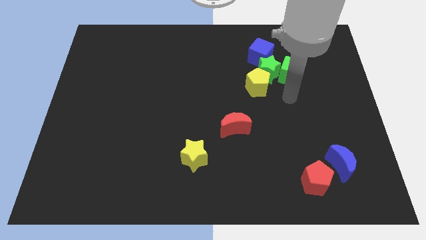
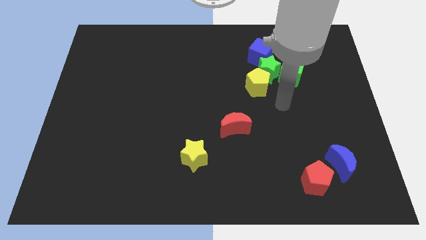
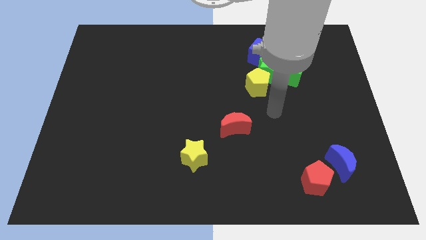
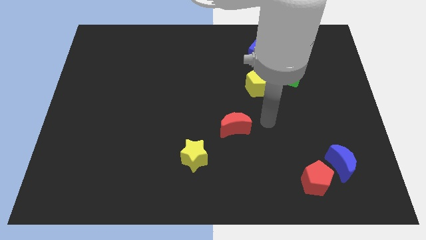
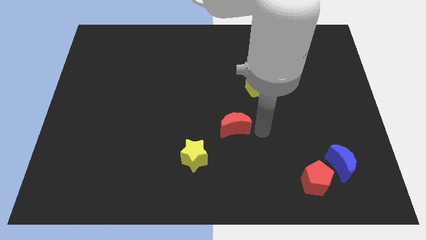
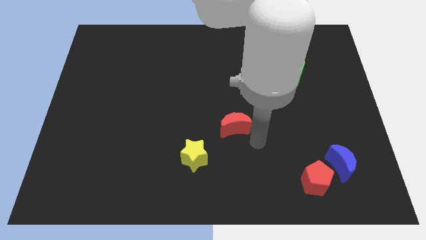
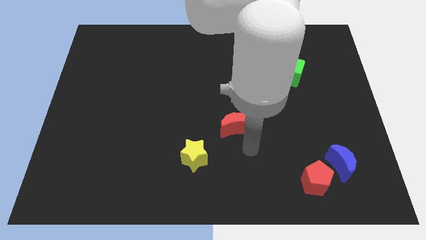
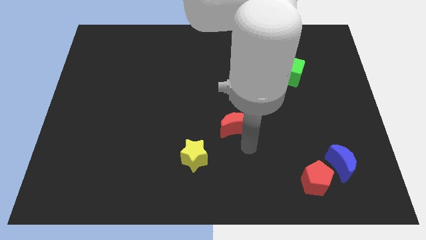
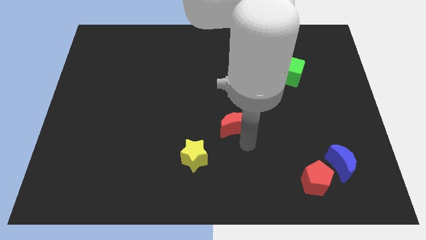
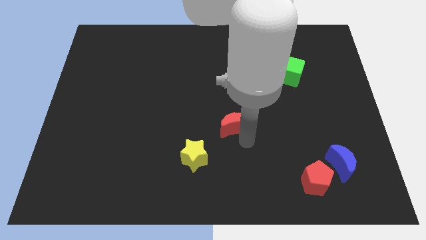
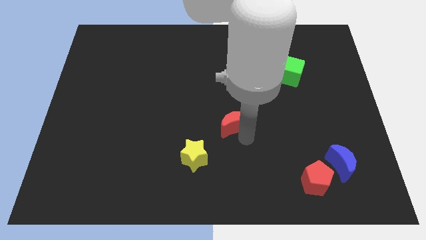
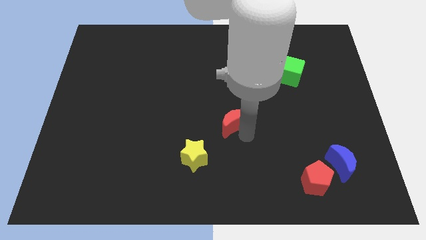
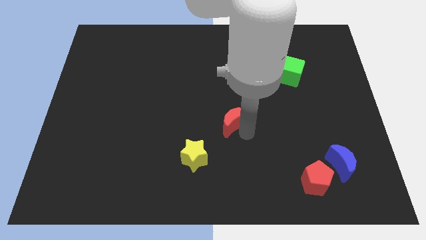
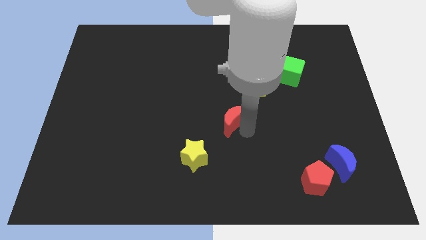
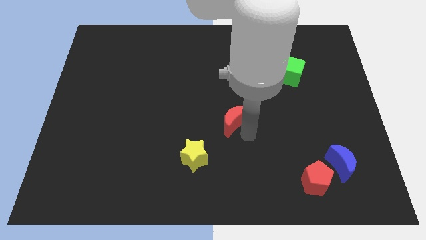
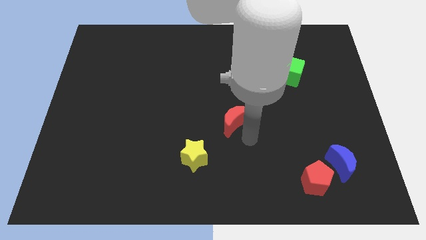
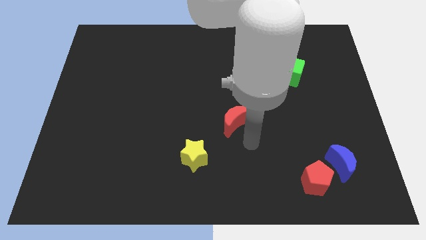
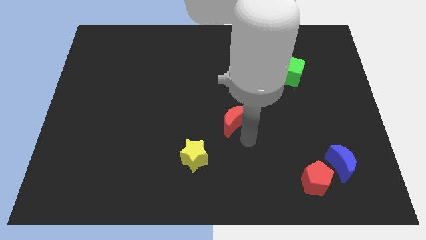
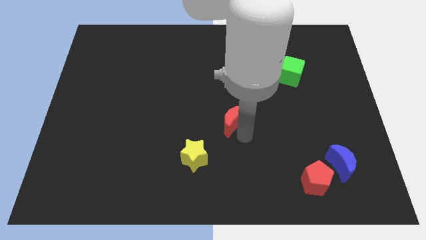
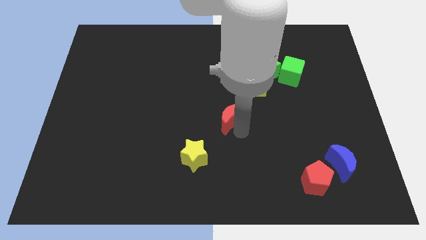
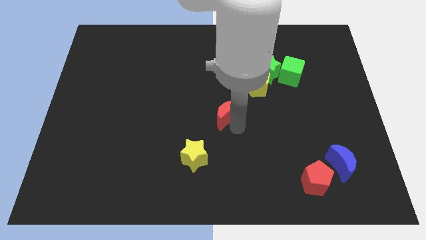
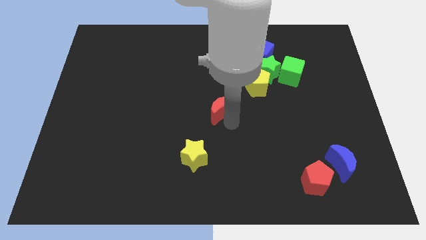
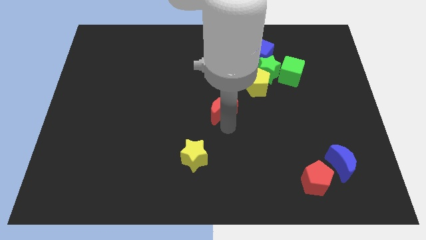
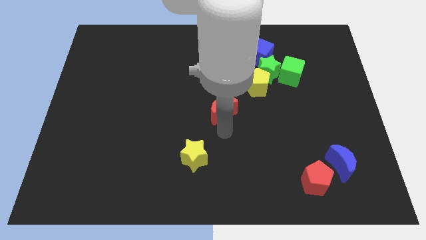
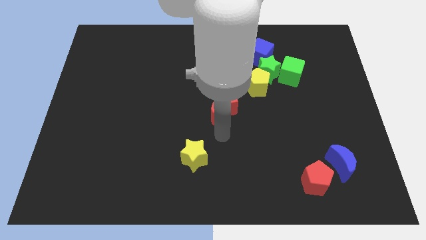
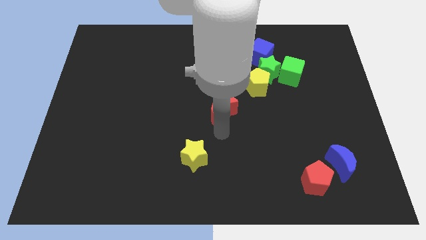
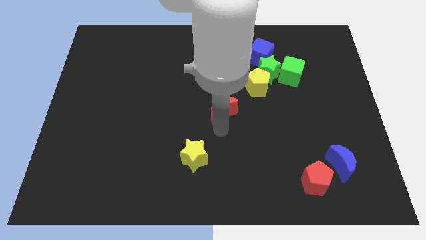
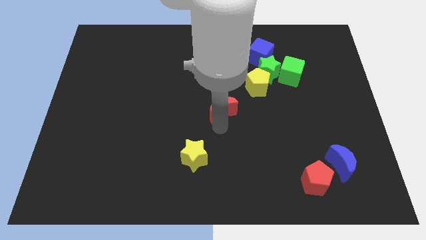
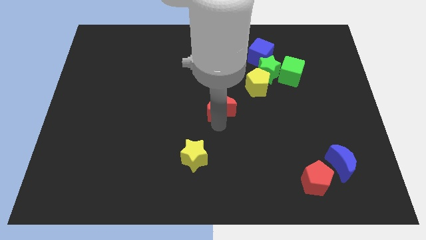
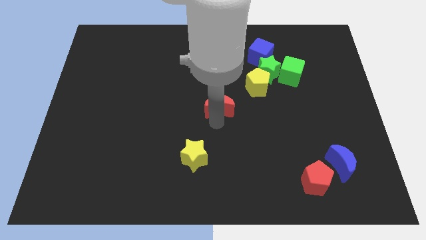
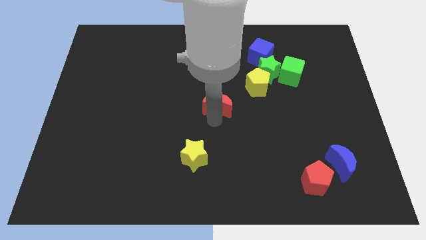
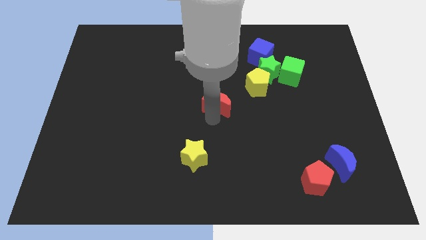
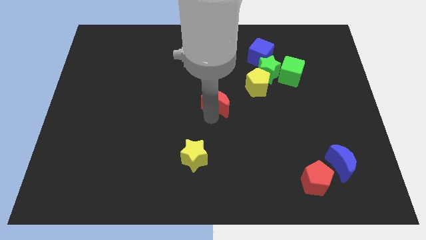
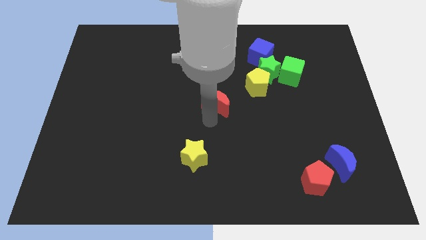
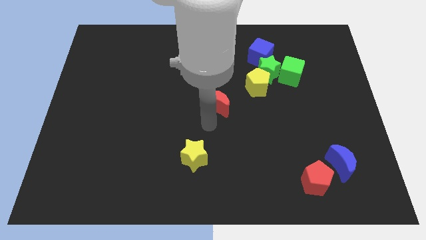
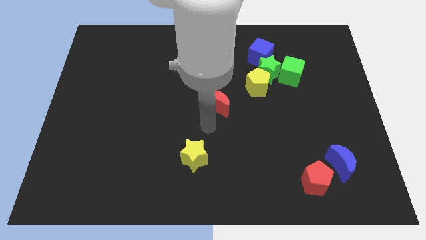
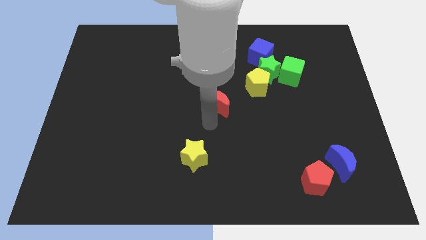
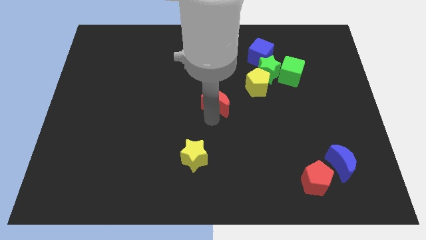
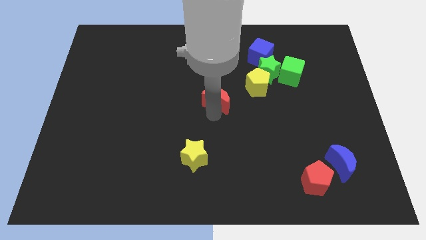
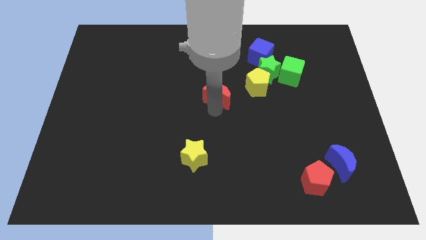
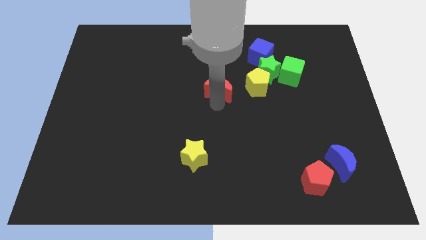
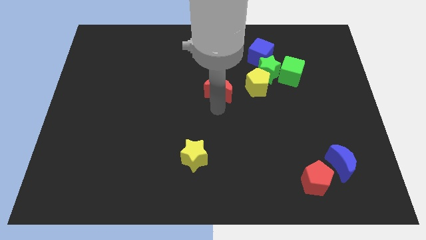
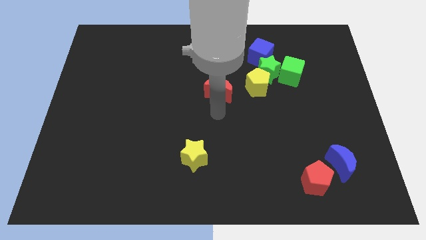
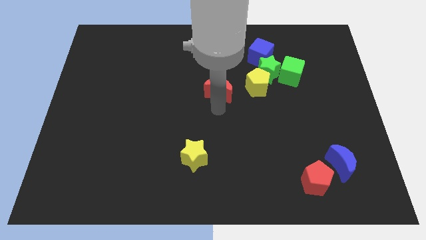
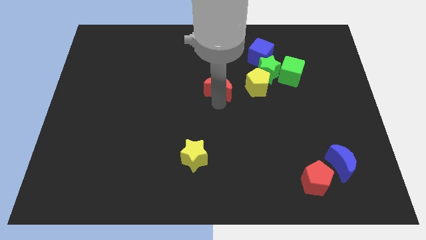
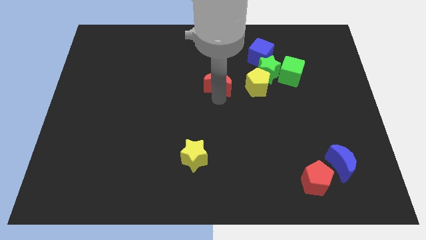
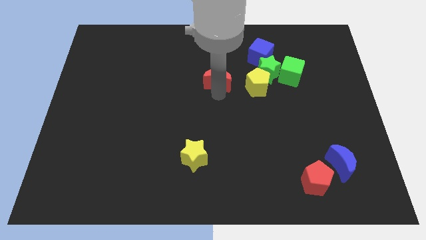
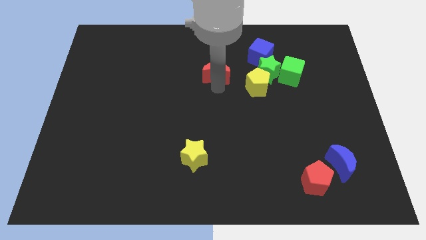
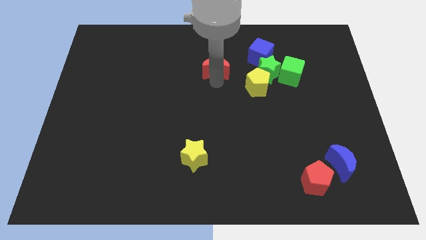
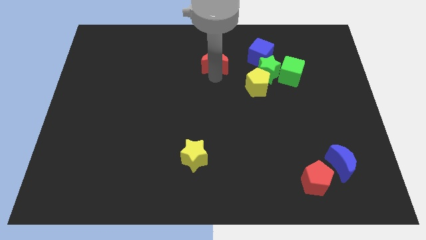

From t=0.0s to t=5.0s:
move the red moon to the left side of the blue cube

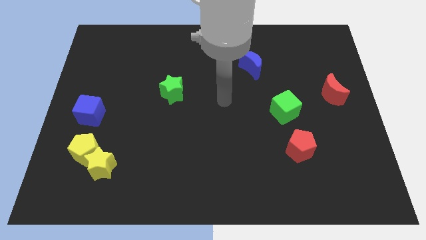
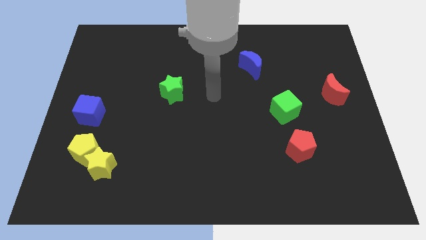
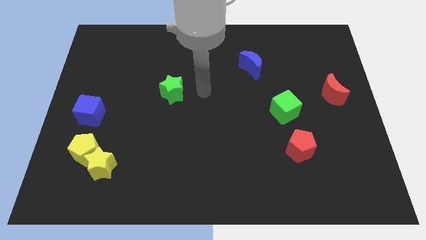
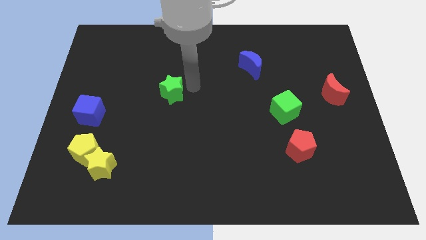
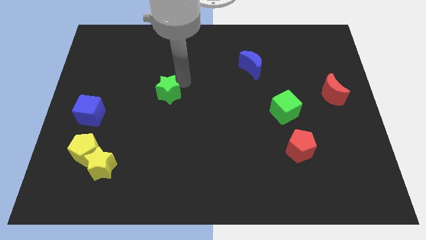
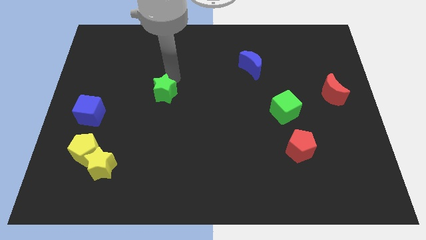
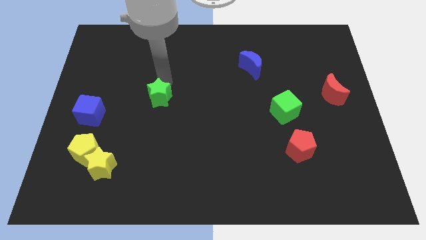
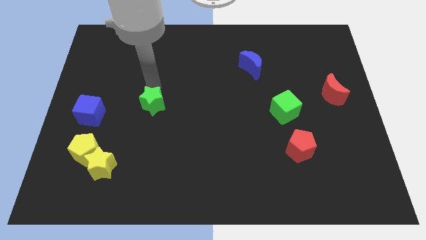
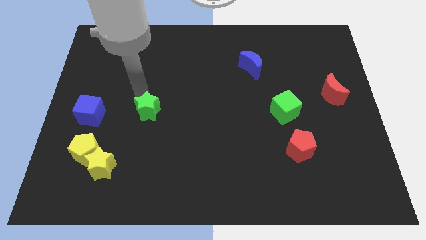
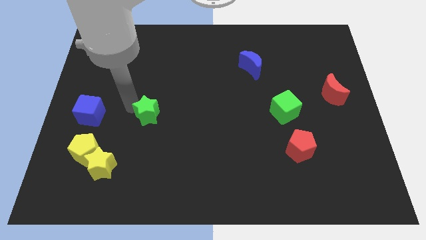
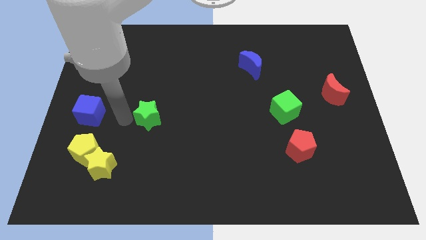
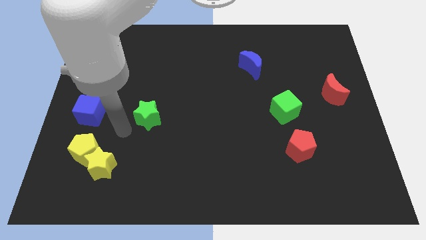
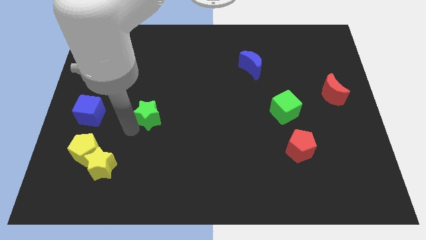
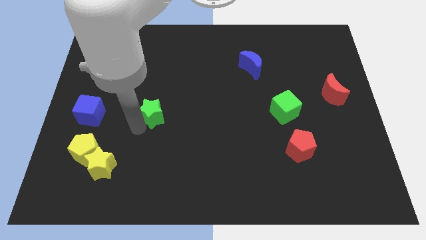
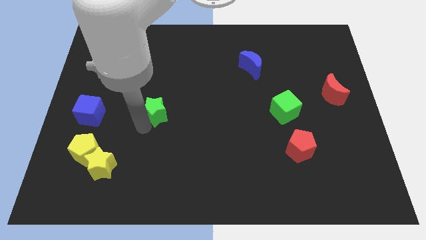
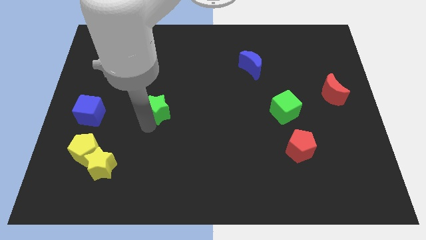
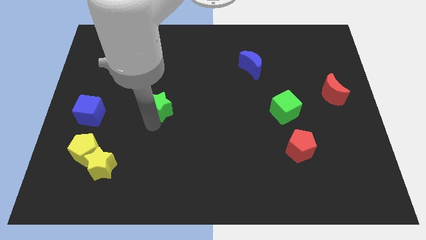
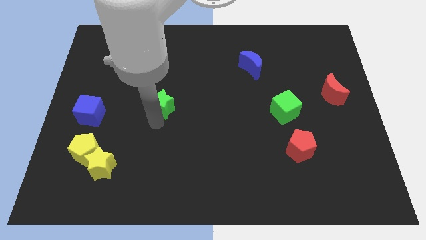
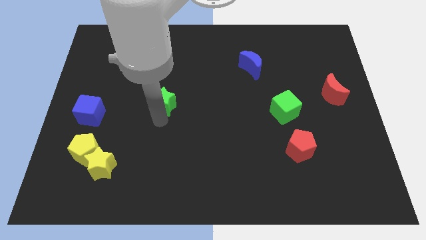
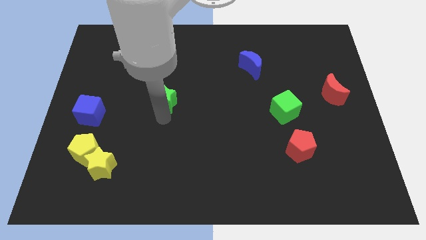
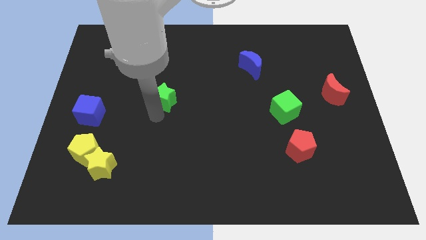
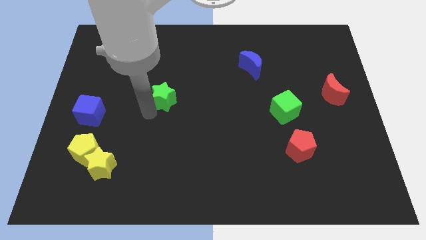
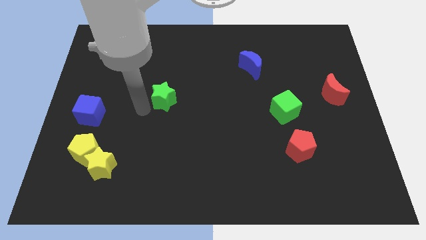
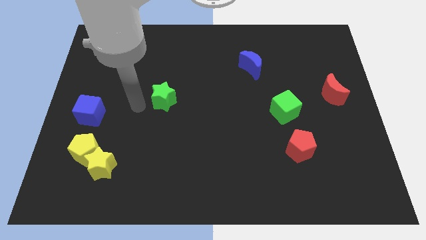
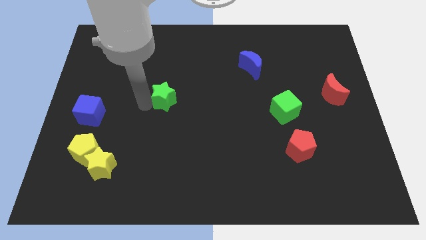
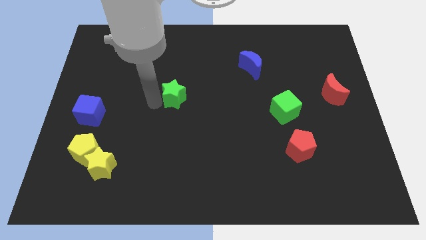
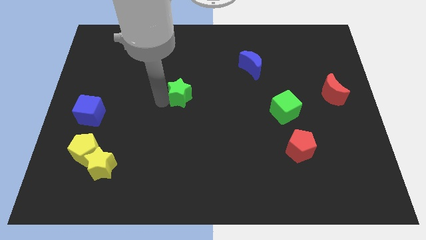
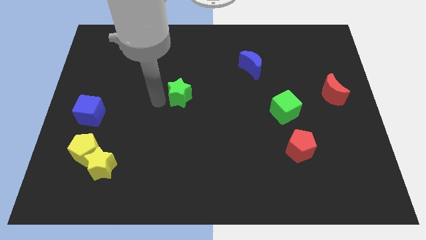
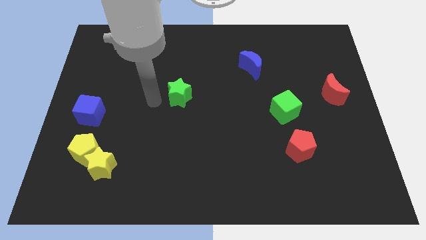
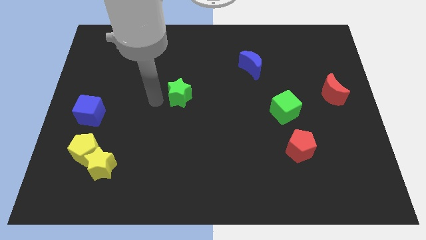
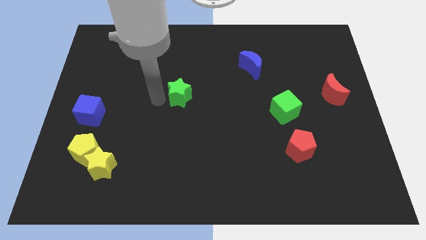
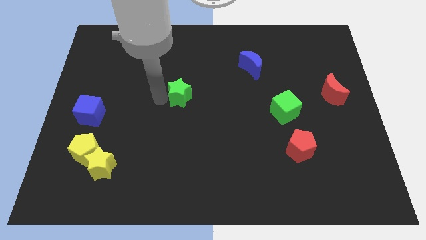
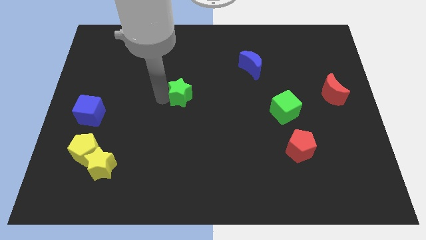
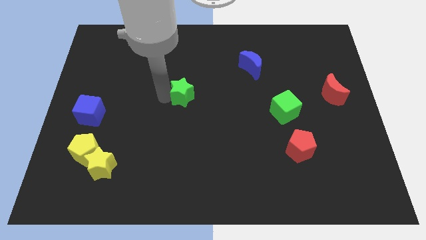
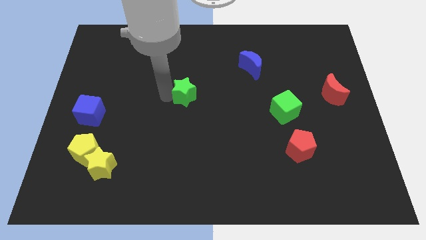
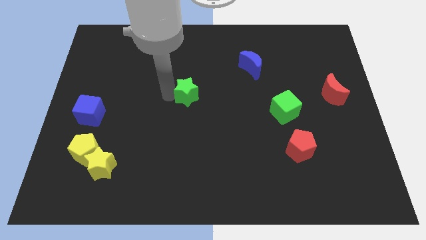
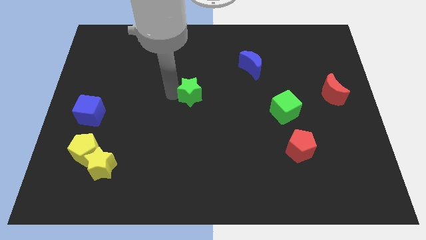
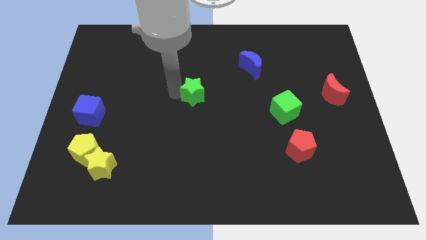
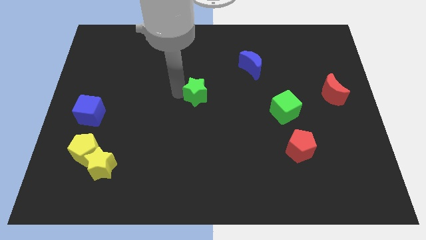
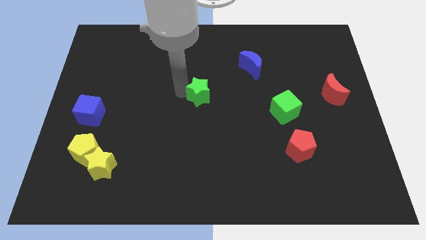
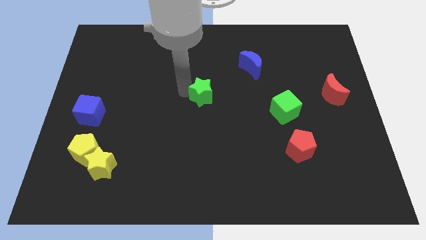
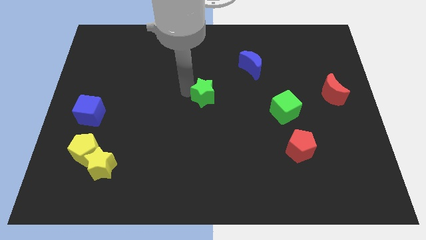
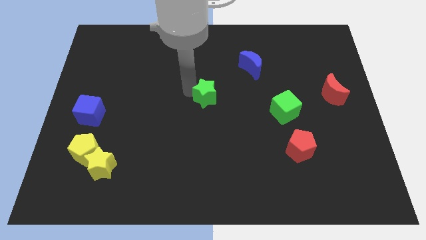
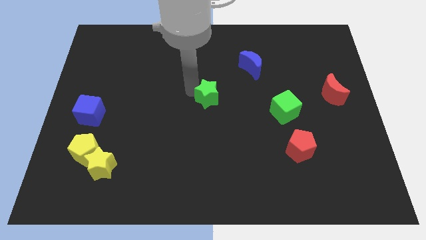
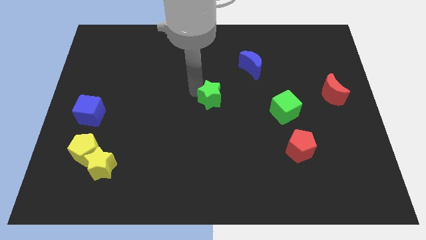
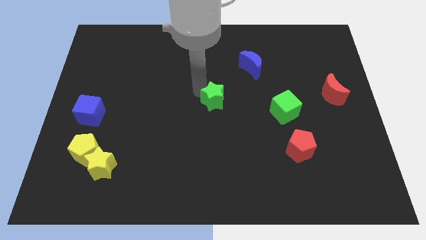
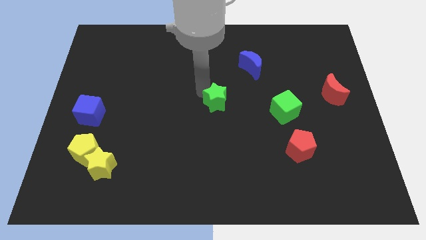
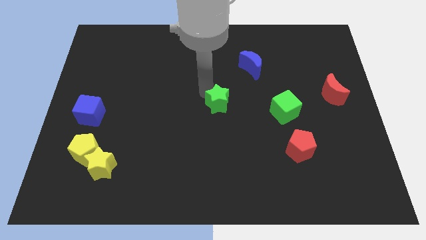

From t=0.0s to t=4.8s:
put the green star to the left of the green cube
